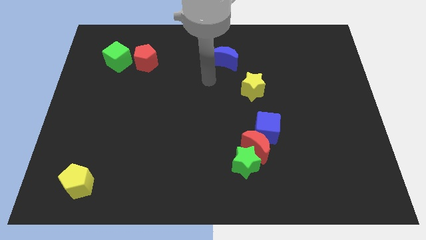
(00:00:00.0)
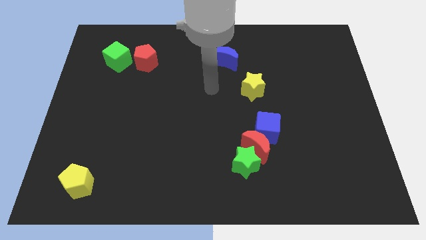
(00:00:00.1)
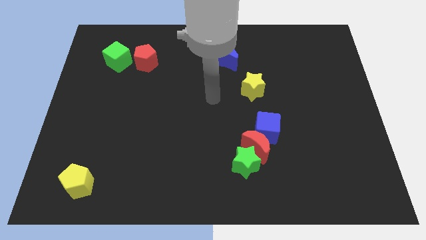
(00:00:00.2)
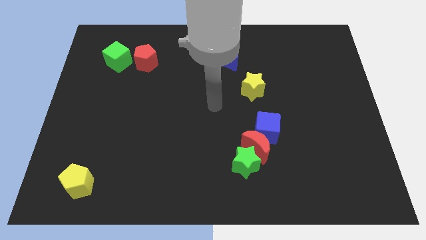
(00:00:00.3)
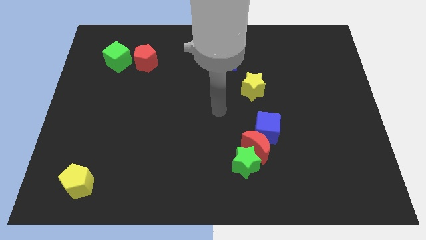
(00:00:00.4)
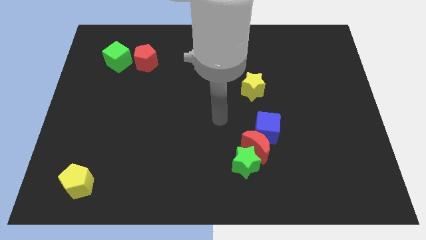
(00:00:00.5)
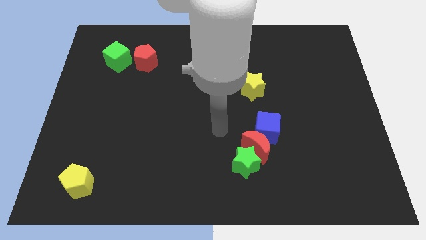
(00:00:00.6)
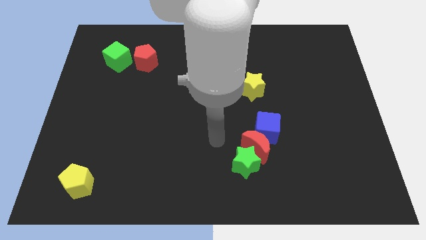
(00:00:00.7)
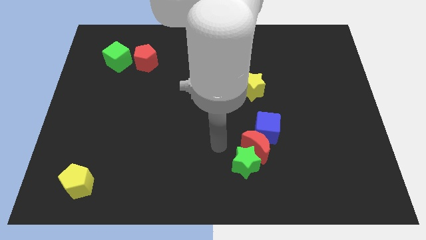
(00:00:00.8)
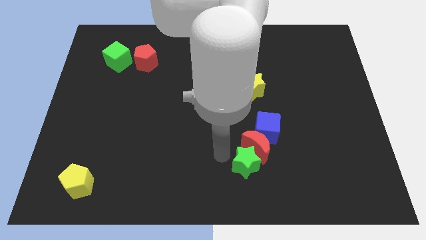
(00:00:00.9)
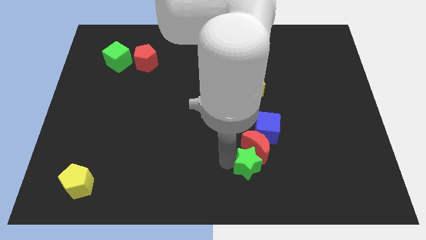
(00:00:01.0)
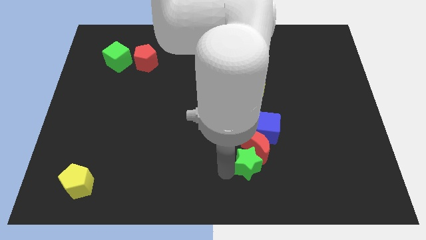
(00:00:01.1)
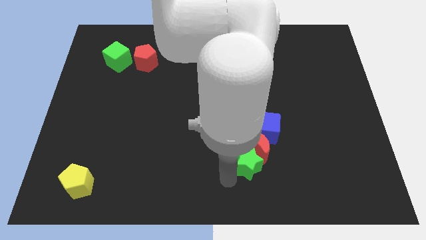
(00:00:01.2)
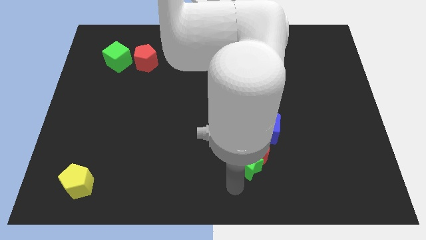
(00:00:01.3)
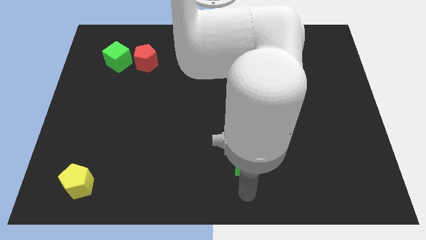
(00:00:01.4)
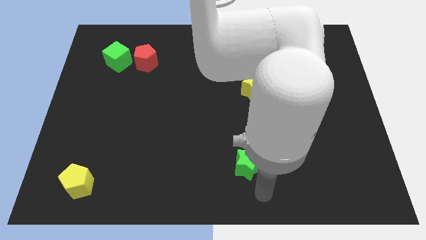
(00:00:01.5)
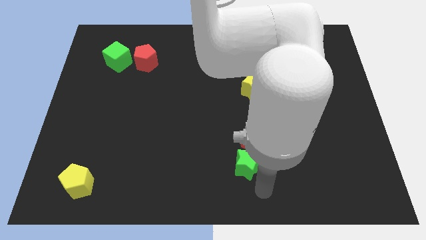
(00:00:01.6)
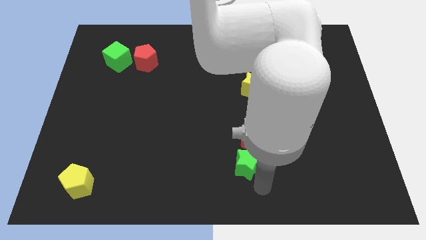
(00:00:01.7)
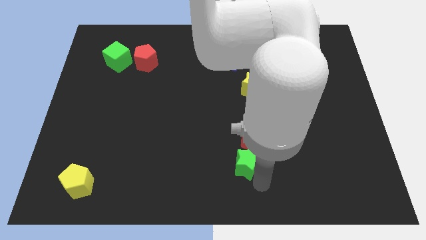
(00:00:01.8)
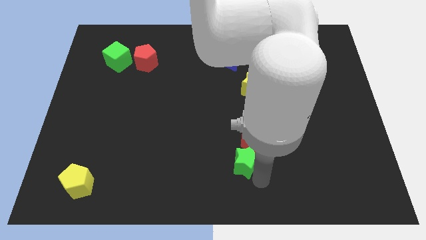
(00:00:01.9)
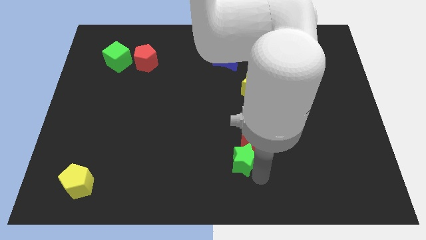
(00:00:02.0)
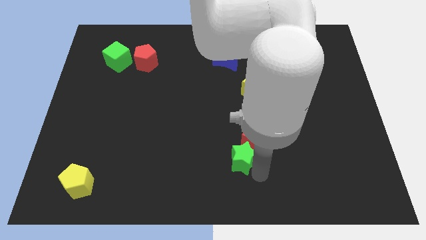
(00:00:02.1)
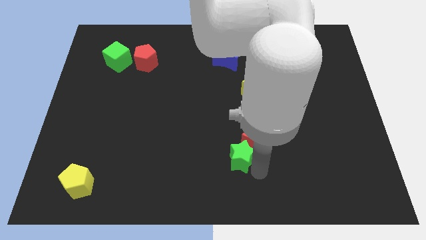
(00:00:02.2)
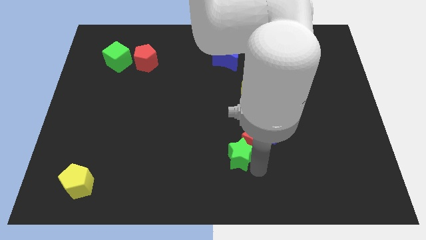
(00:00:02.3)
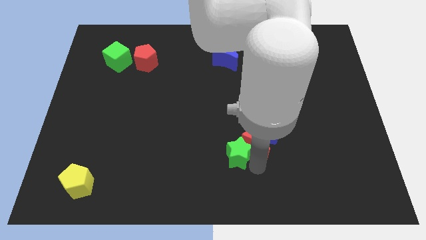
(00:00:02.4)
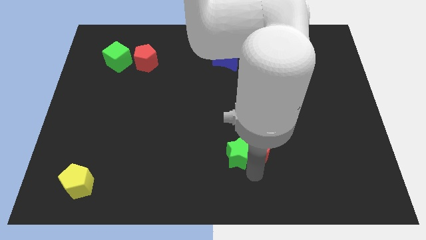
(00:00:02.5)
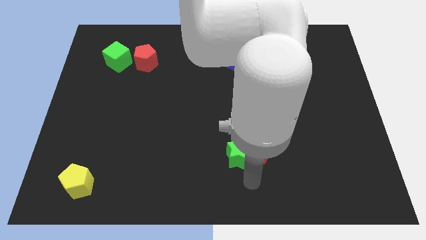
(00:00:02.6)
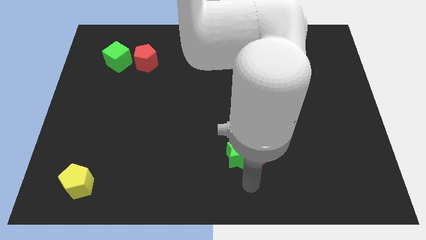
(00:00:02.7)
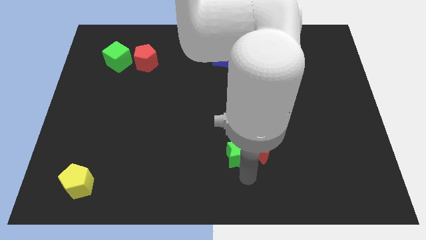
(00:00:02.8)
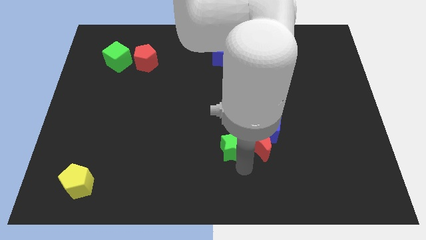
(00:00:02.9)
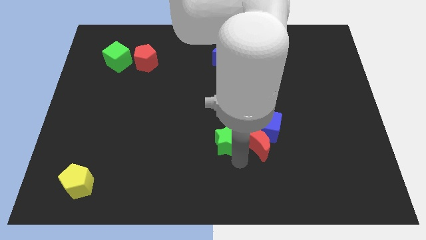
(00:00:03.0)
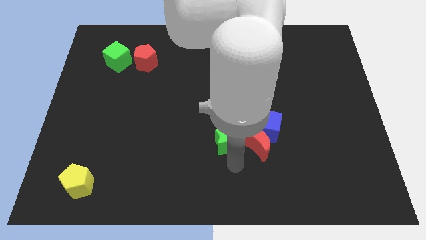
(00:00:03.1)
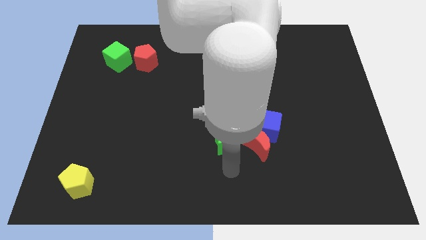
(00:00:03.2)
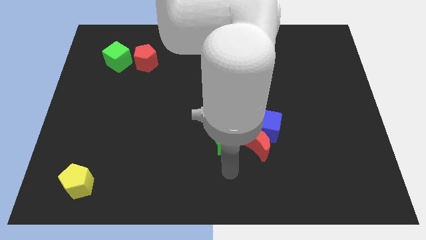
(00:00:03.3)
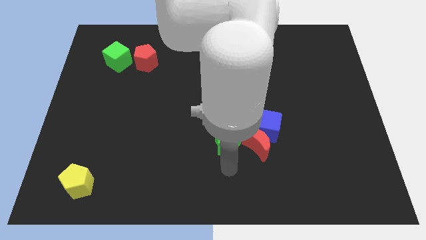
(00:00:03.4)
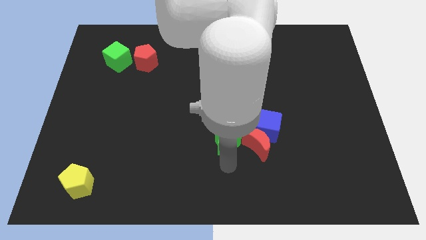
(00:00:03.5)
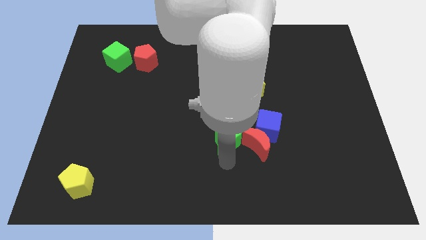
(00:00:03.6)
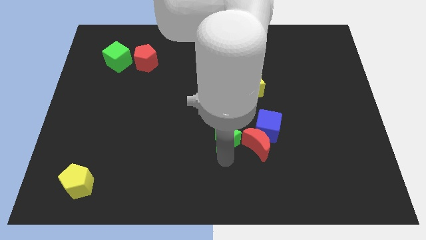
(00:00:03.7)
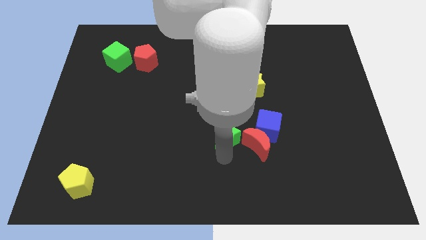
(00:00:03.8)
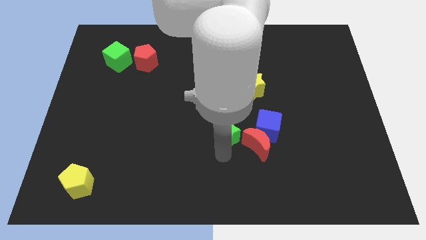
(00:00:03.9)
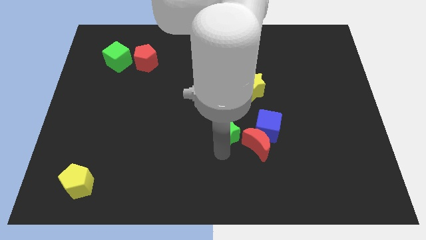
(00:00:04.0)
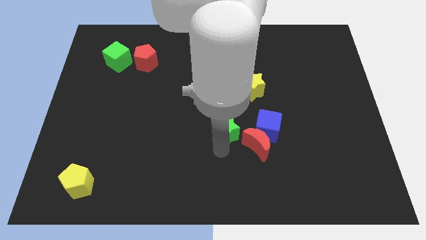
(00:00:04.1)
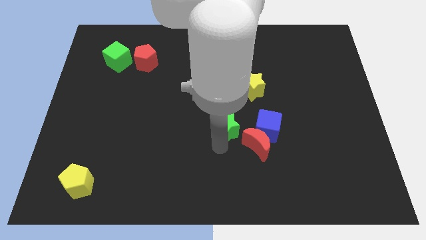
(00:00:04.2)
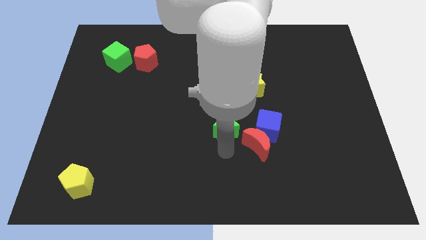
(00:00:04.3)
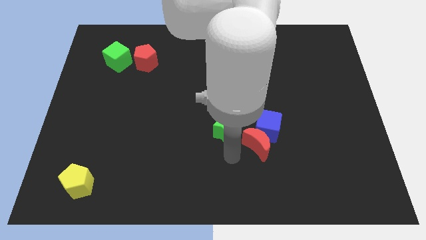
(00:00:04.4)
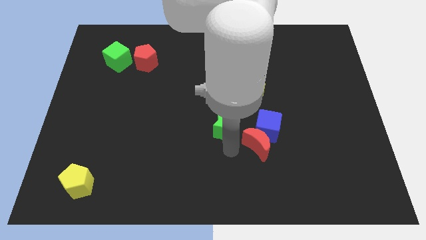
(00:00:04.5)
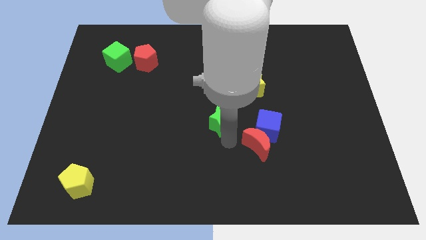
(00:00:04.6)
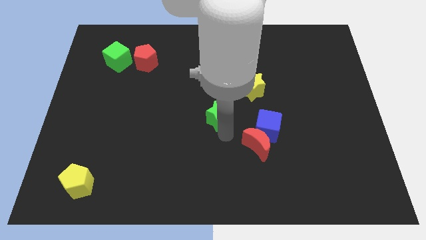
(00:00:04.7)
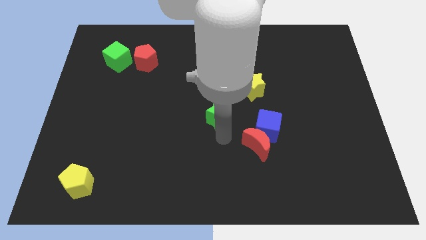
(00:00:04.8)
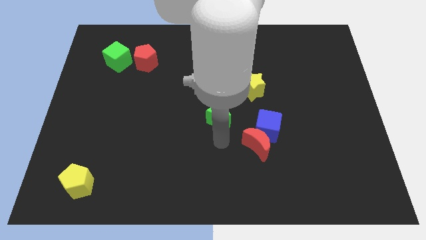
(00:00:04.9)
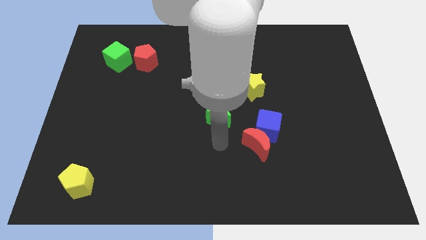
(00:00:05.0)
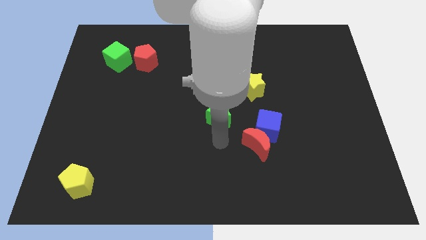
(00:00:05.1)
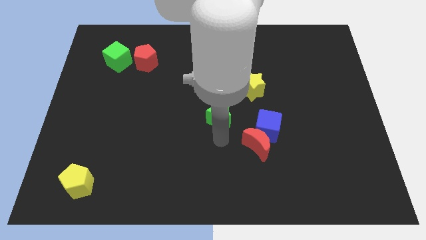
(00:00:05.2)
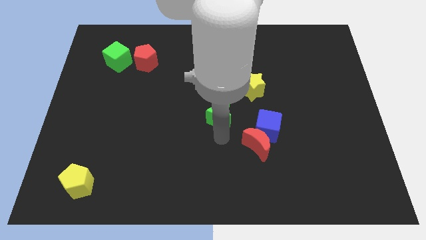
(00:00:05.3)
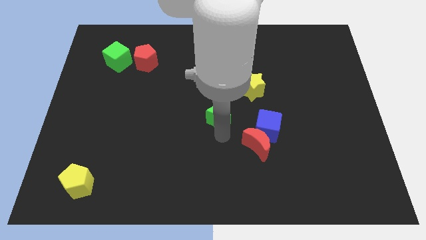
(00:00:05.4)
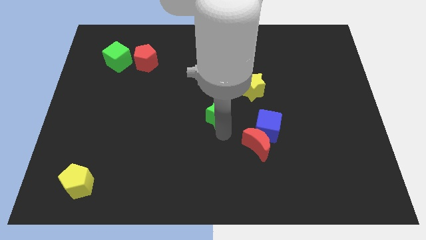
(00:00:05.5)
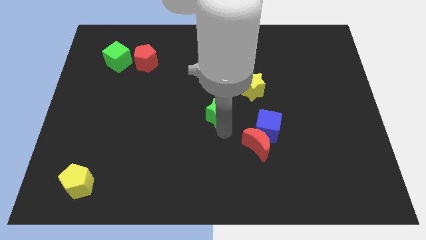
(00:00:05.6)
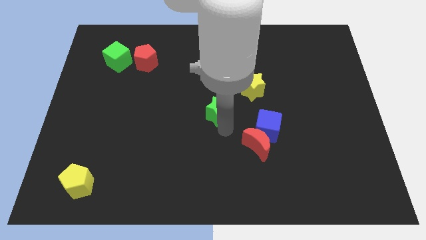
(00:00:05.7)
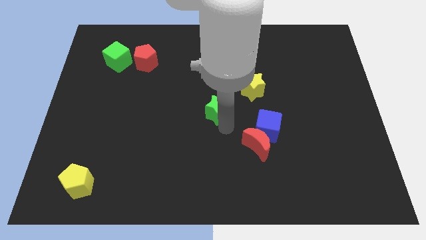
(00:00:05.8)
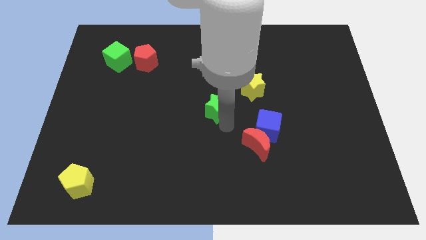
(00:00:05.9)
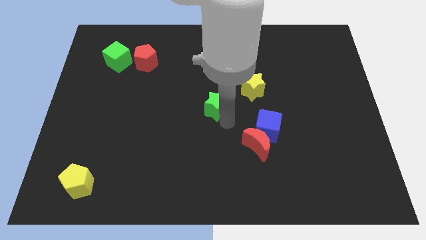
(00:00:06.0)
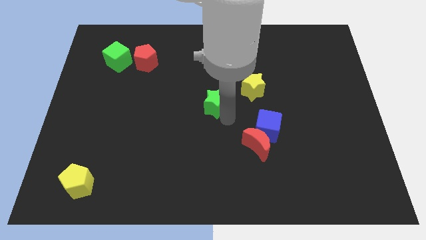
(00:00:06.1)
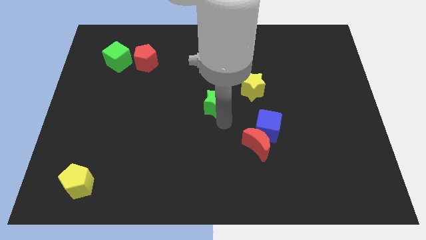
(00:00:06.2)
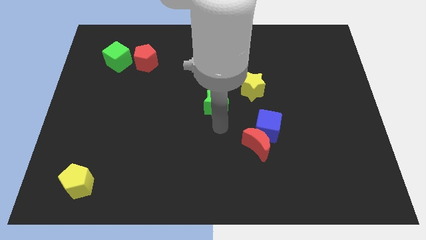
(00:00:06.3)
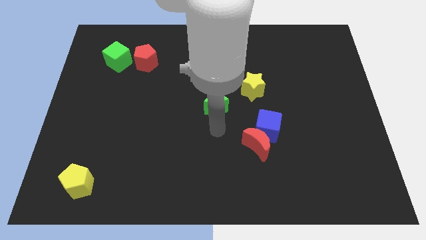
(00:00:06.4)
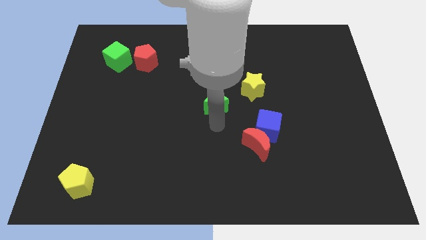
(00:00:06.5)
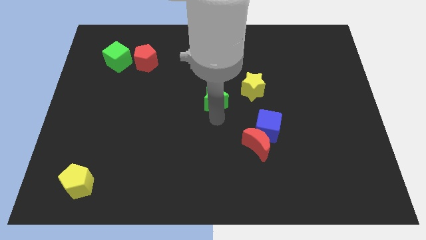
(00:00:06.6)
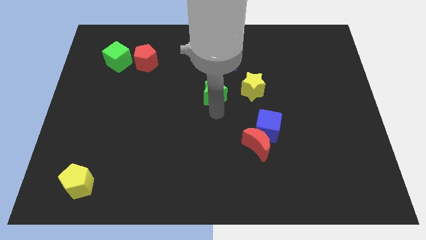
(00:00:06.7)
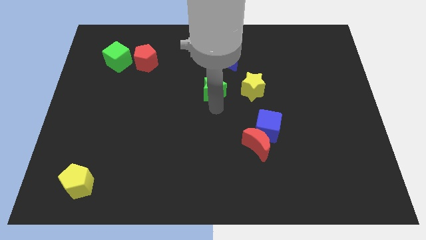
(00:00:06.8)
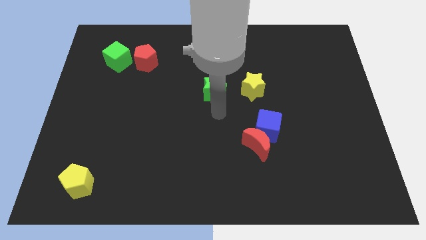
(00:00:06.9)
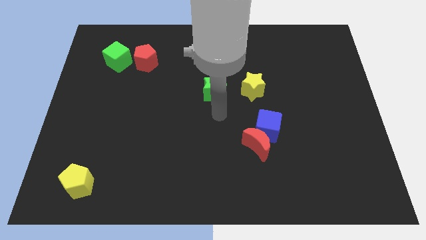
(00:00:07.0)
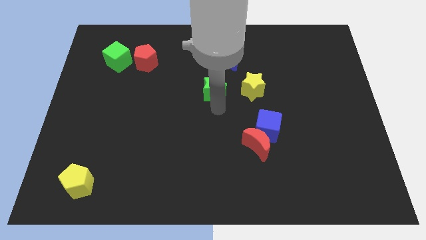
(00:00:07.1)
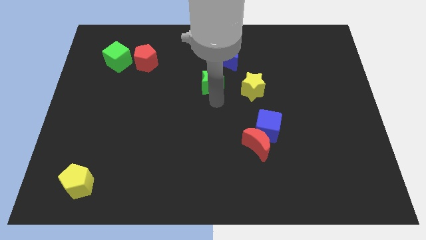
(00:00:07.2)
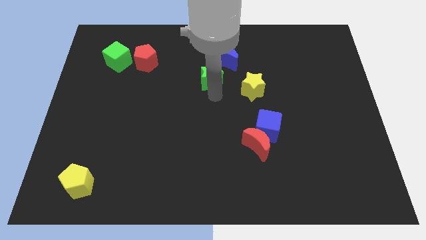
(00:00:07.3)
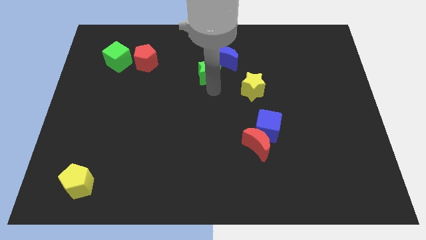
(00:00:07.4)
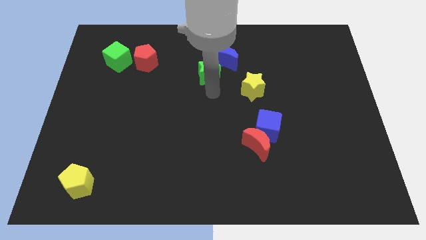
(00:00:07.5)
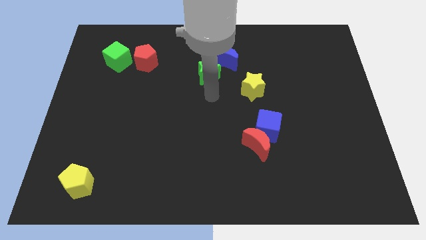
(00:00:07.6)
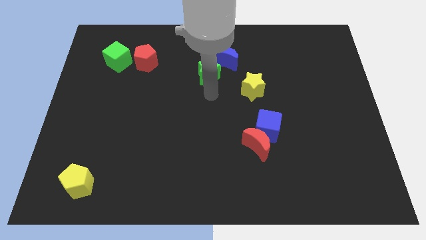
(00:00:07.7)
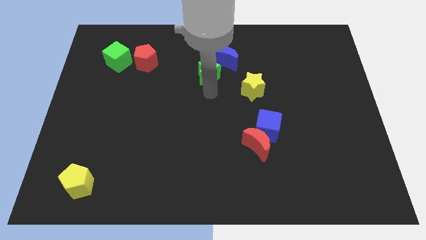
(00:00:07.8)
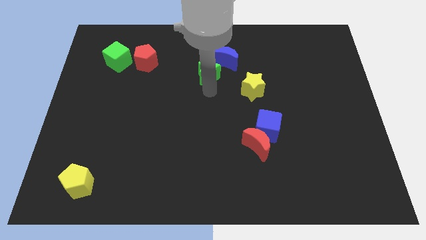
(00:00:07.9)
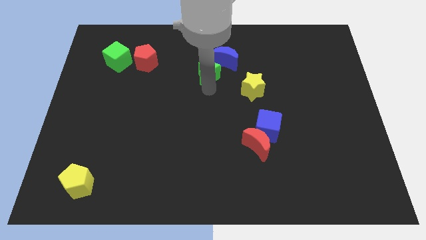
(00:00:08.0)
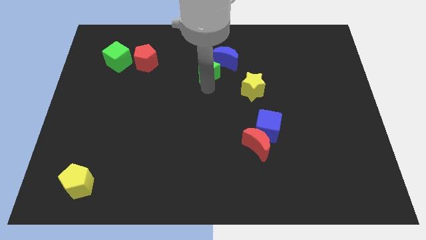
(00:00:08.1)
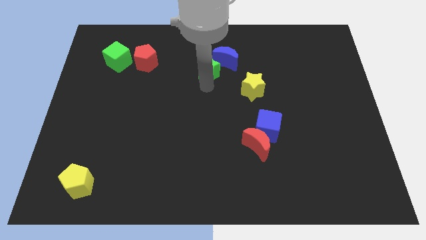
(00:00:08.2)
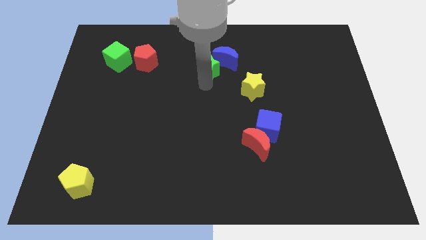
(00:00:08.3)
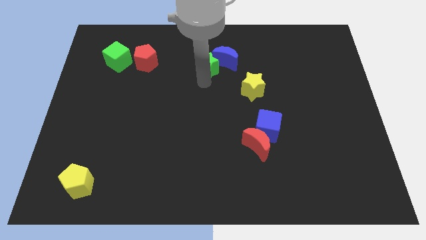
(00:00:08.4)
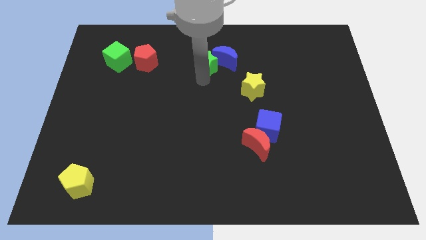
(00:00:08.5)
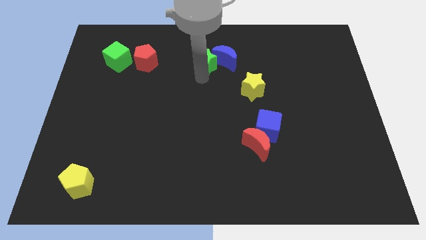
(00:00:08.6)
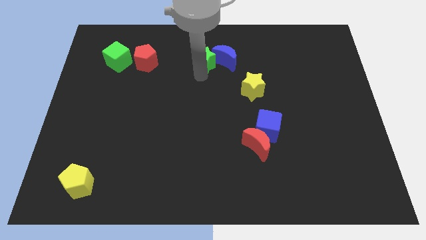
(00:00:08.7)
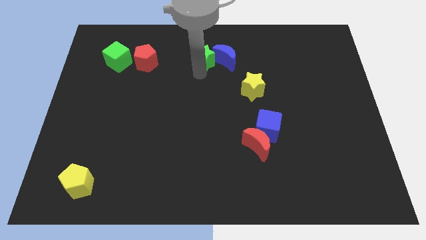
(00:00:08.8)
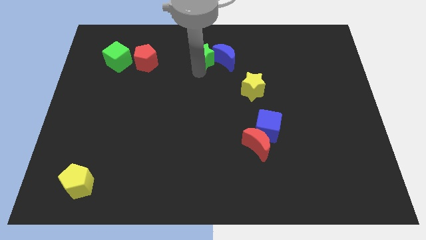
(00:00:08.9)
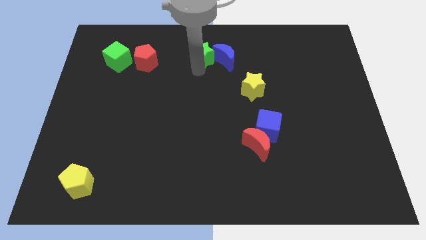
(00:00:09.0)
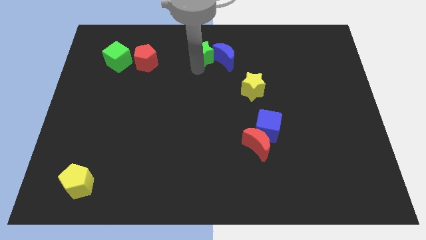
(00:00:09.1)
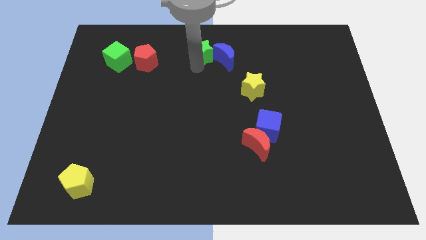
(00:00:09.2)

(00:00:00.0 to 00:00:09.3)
push the green star to the towards your base
